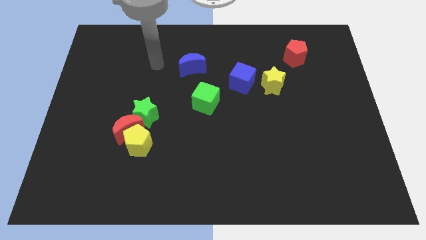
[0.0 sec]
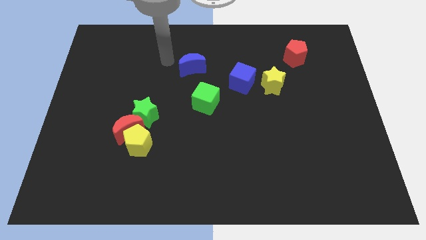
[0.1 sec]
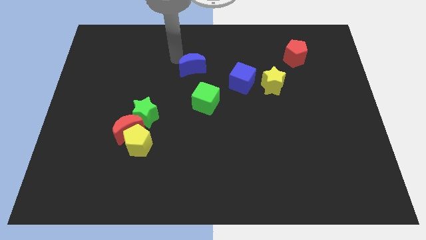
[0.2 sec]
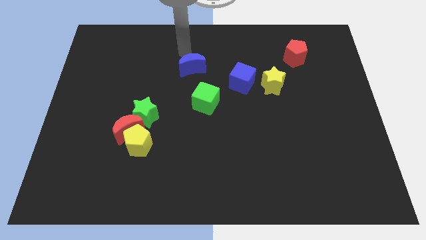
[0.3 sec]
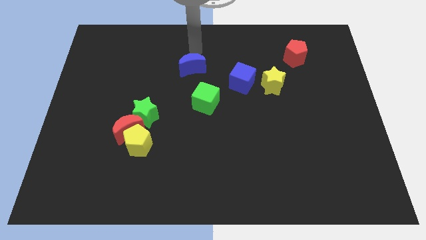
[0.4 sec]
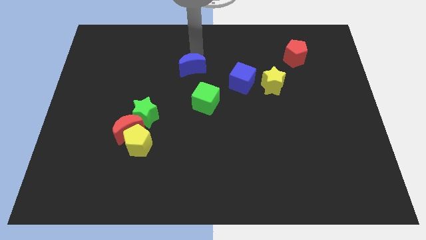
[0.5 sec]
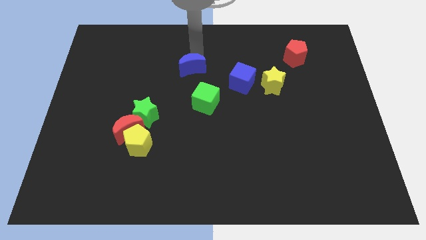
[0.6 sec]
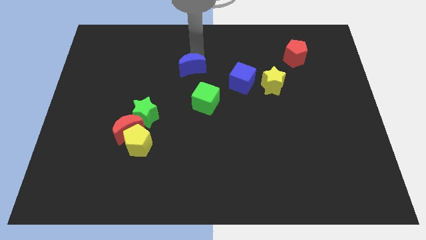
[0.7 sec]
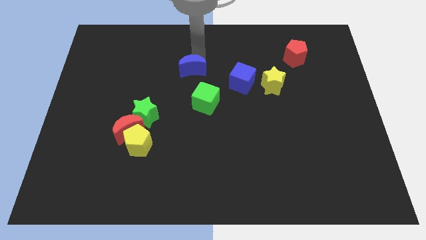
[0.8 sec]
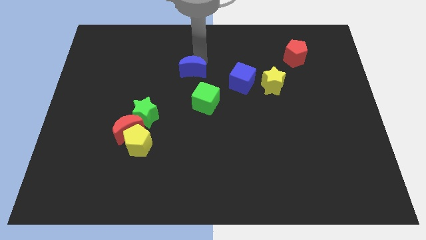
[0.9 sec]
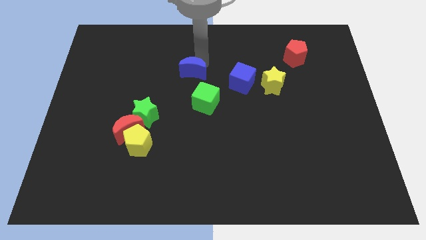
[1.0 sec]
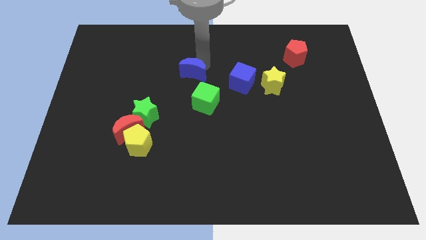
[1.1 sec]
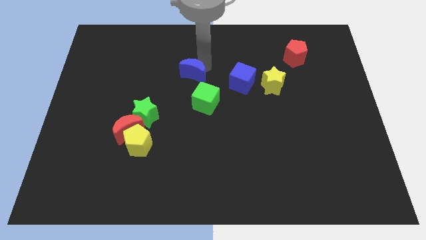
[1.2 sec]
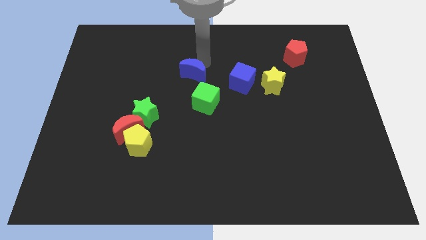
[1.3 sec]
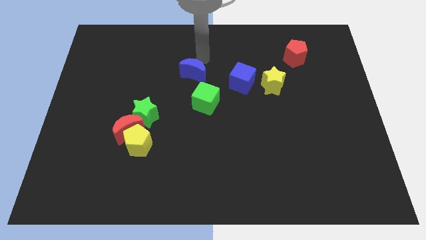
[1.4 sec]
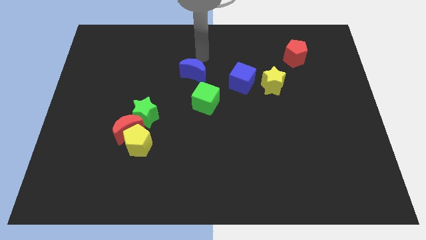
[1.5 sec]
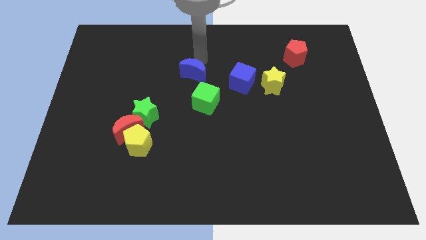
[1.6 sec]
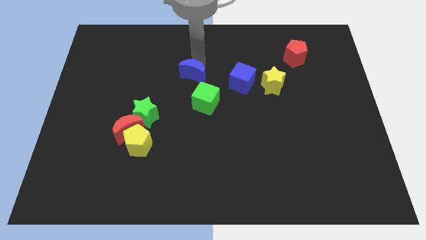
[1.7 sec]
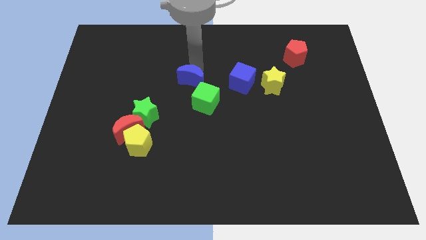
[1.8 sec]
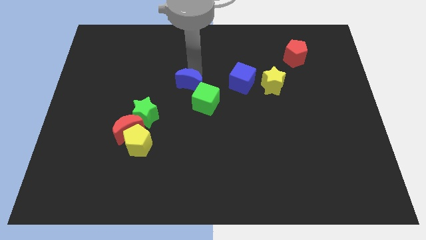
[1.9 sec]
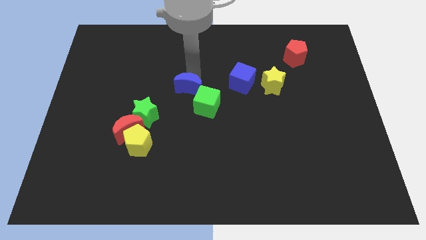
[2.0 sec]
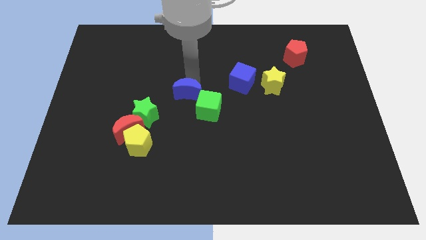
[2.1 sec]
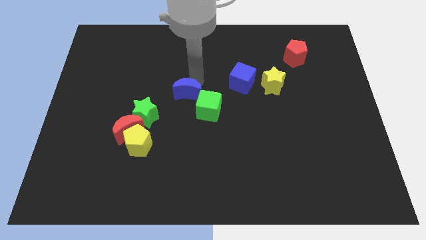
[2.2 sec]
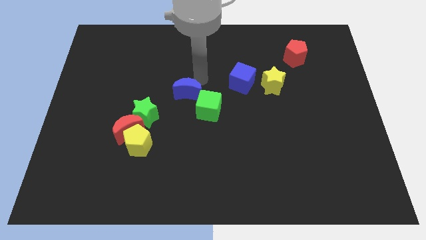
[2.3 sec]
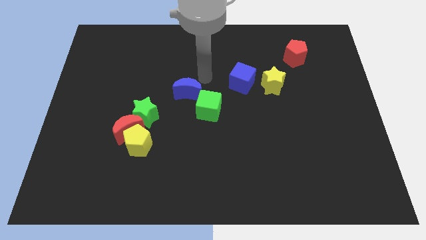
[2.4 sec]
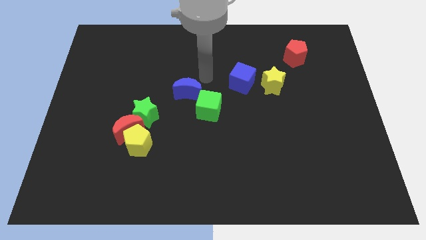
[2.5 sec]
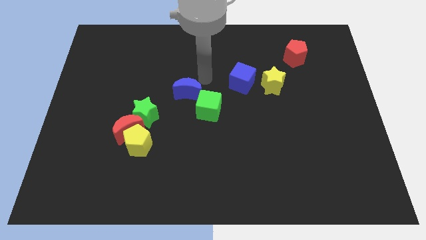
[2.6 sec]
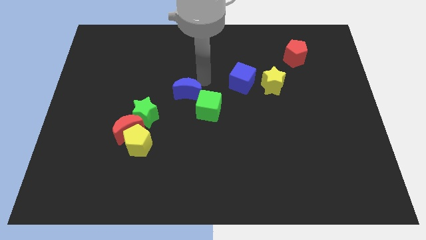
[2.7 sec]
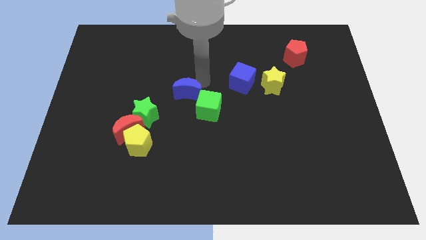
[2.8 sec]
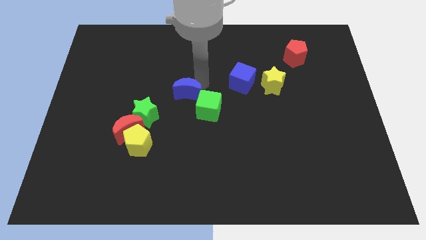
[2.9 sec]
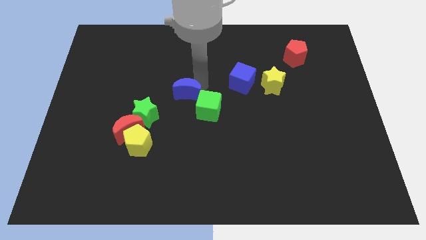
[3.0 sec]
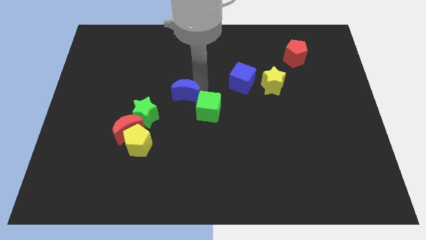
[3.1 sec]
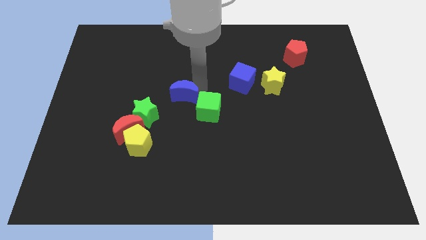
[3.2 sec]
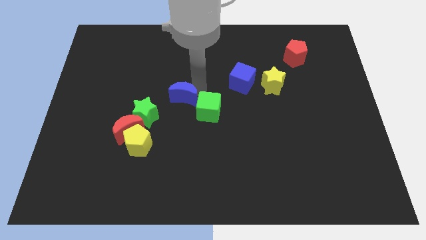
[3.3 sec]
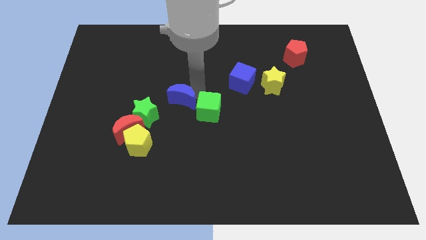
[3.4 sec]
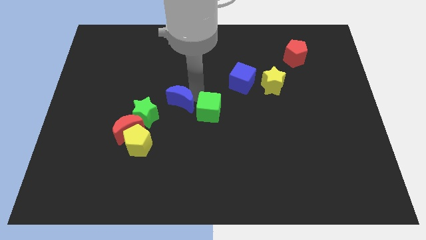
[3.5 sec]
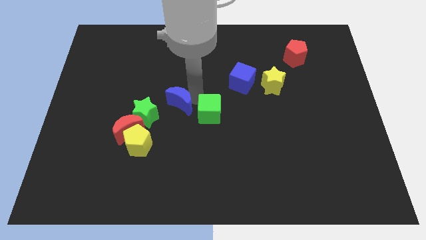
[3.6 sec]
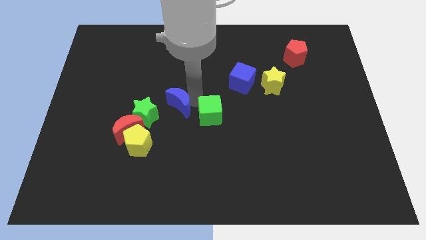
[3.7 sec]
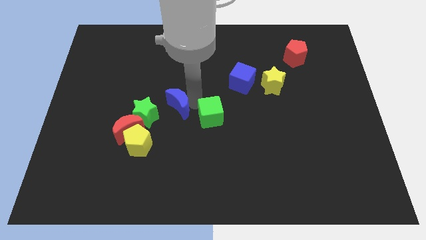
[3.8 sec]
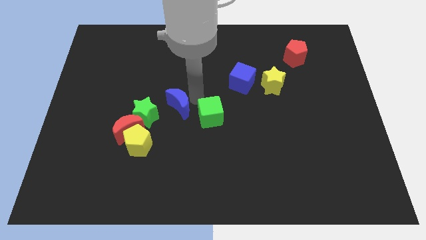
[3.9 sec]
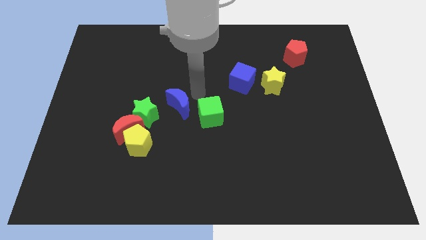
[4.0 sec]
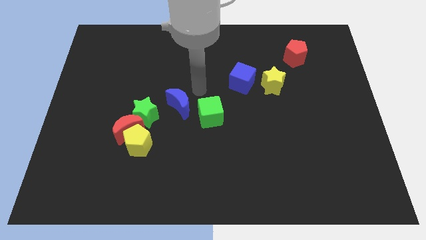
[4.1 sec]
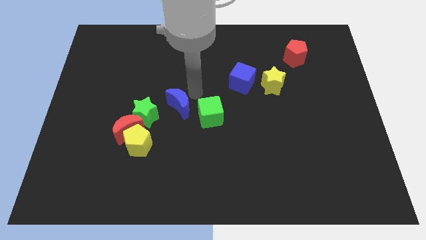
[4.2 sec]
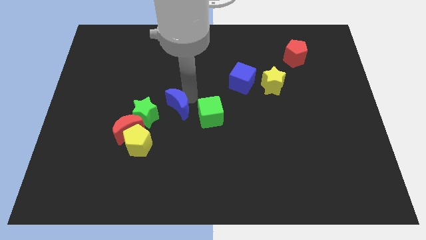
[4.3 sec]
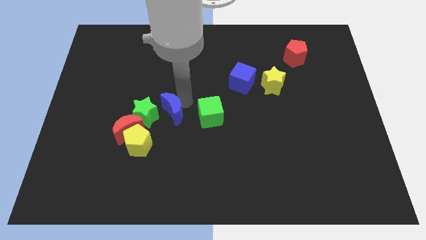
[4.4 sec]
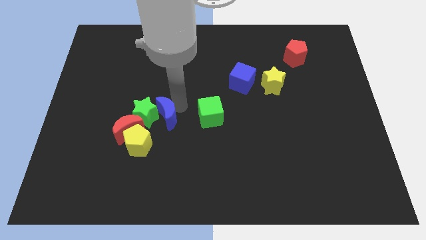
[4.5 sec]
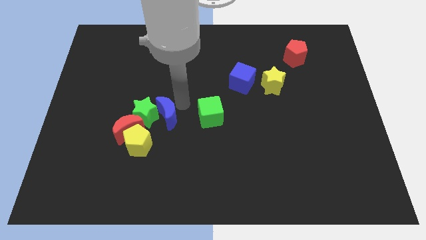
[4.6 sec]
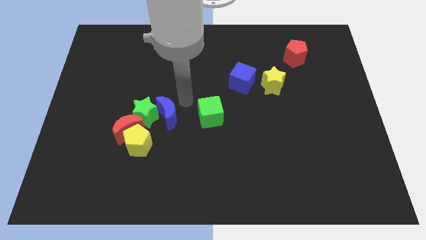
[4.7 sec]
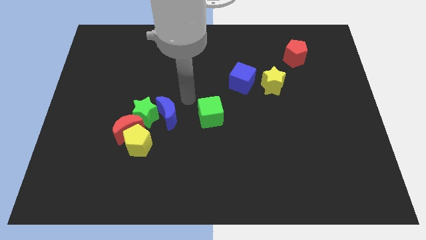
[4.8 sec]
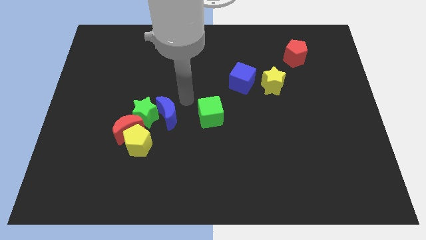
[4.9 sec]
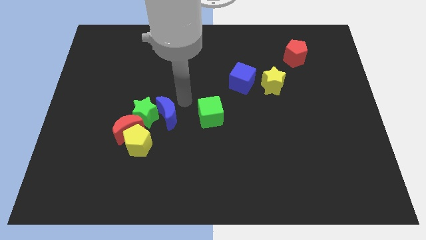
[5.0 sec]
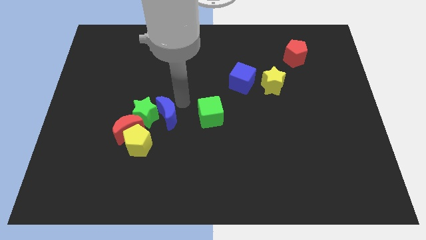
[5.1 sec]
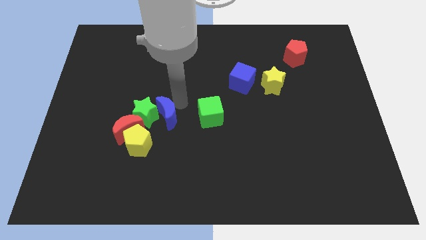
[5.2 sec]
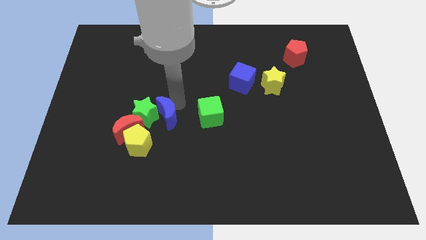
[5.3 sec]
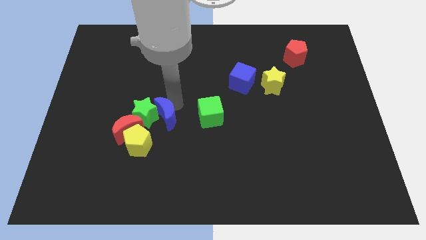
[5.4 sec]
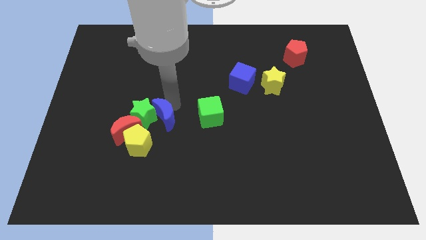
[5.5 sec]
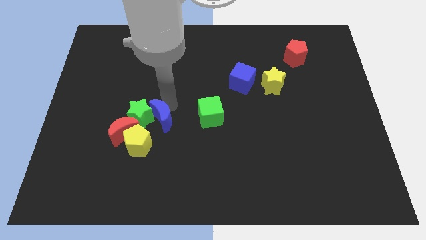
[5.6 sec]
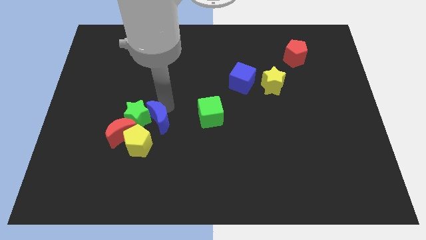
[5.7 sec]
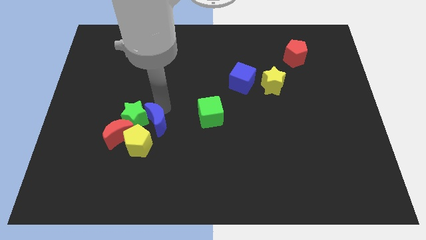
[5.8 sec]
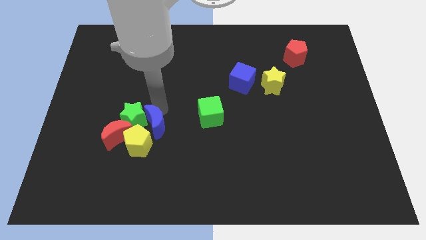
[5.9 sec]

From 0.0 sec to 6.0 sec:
push the blue moon close to the yellow pentagon

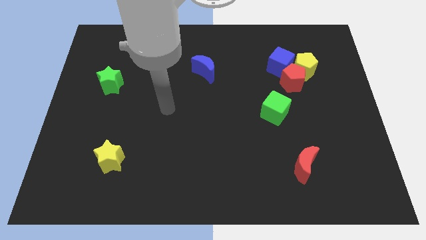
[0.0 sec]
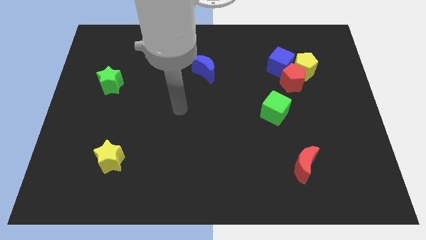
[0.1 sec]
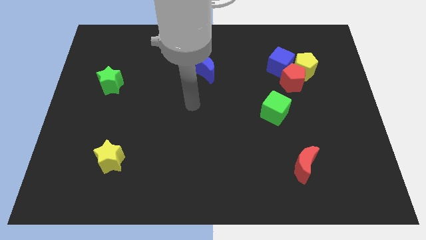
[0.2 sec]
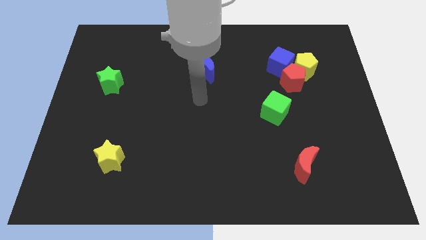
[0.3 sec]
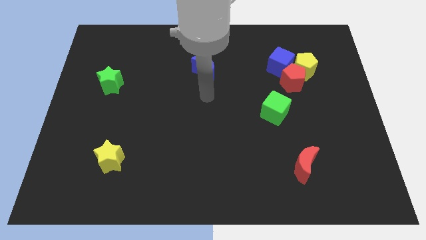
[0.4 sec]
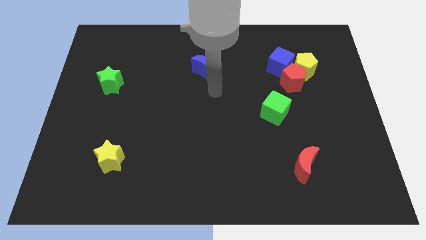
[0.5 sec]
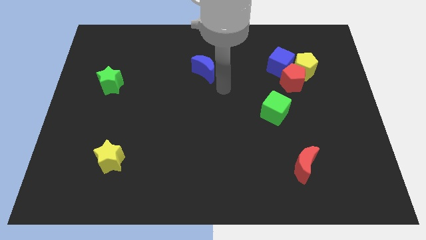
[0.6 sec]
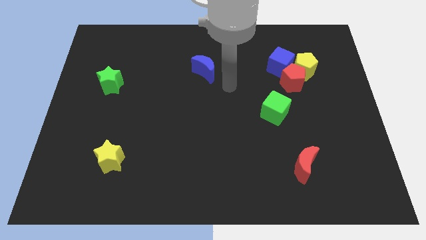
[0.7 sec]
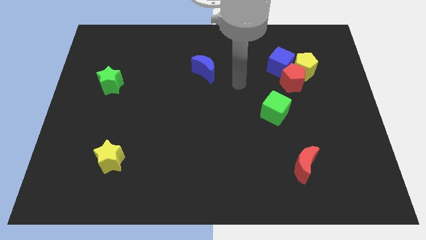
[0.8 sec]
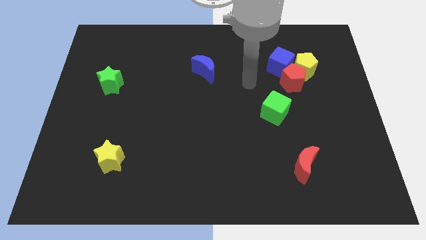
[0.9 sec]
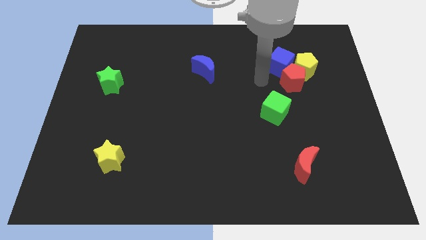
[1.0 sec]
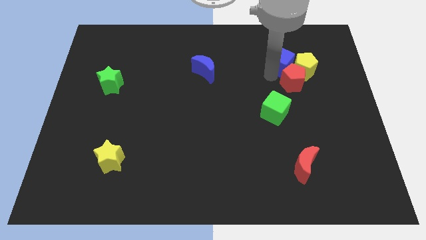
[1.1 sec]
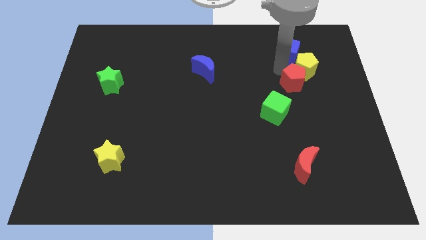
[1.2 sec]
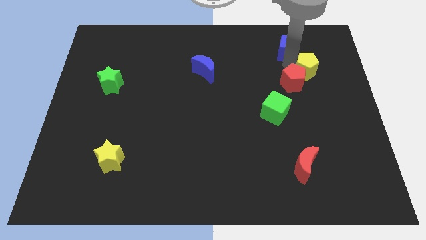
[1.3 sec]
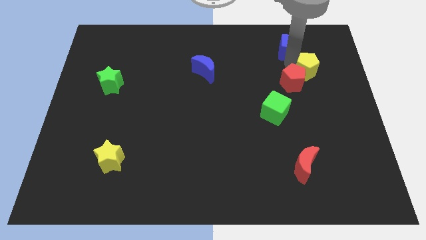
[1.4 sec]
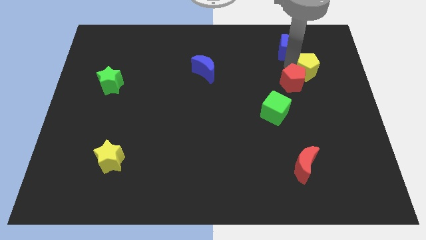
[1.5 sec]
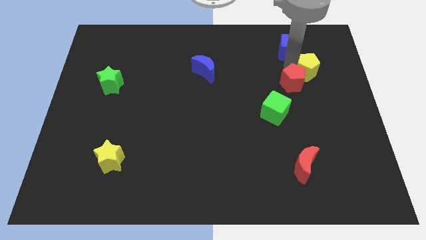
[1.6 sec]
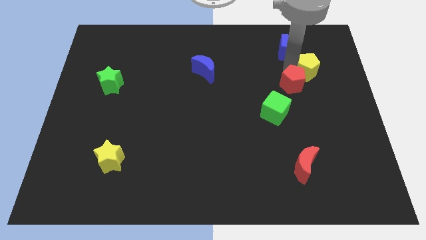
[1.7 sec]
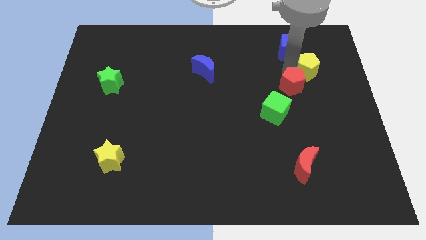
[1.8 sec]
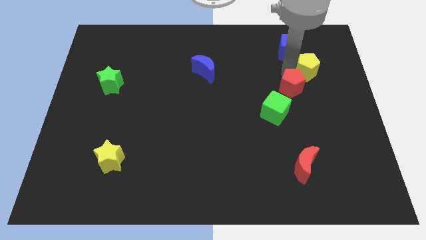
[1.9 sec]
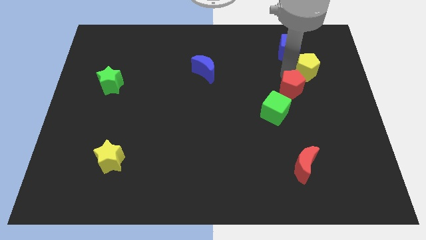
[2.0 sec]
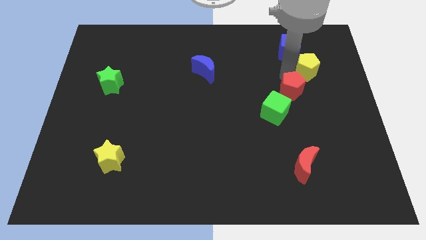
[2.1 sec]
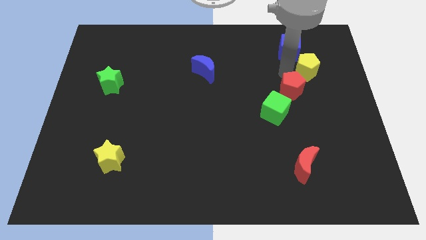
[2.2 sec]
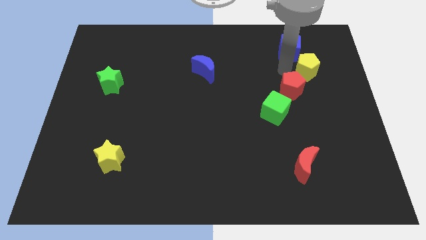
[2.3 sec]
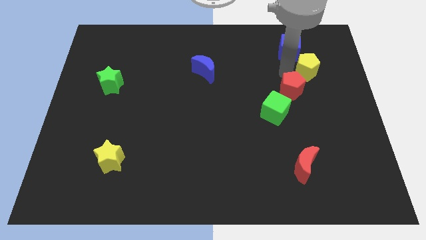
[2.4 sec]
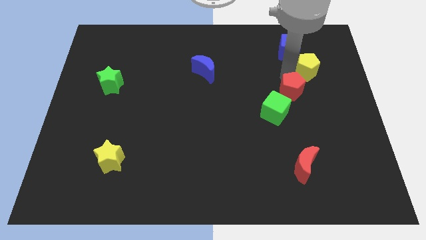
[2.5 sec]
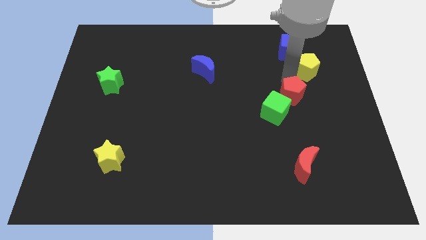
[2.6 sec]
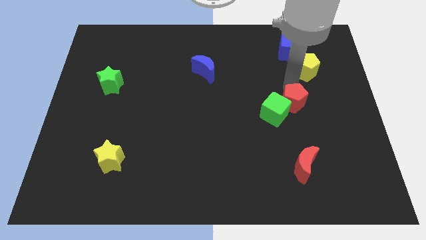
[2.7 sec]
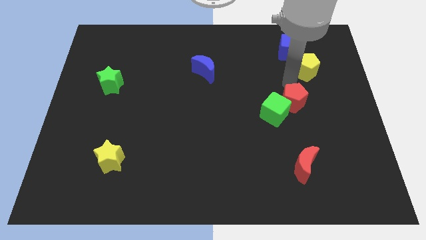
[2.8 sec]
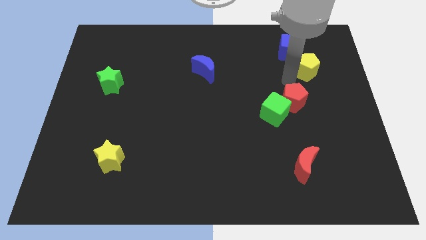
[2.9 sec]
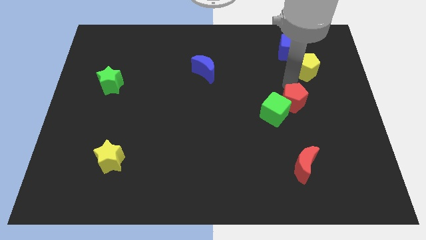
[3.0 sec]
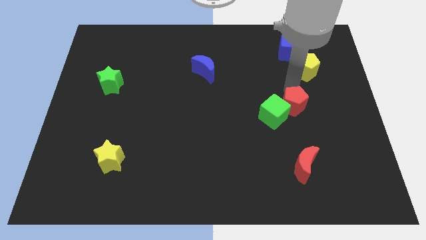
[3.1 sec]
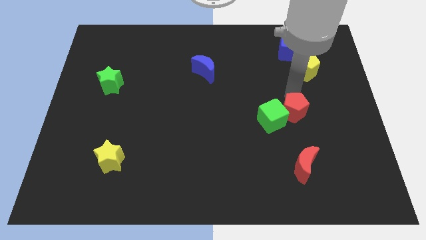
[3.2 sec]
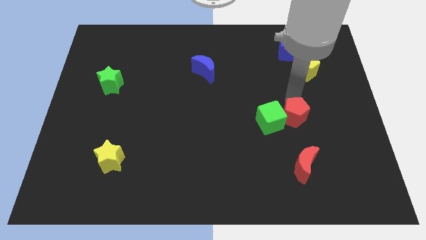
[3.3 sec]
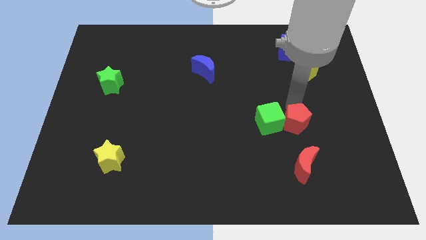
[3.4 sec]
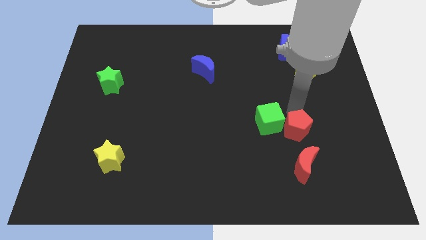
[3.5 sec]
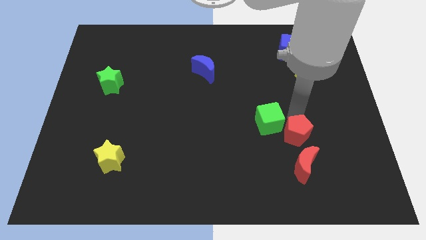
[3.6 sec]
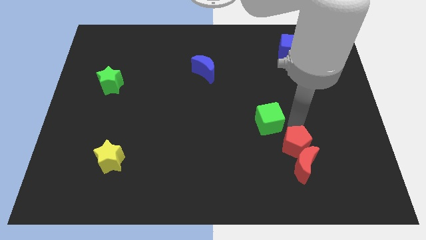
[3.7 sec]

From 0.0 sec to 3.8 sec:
put the red pentagon next to the red moon
